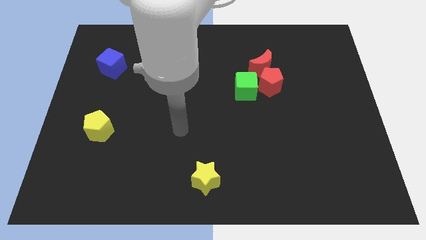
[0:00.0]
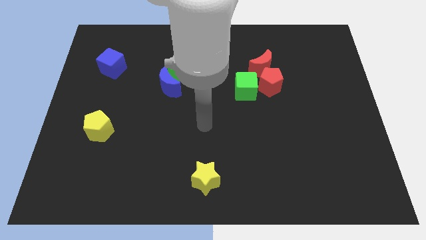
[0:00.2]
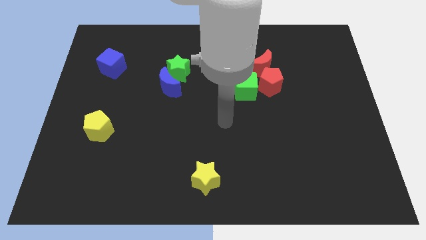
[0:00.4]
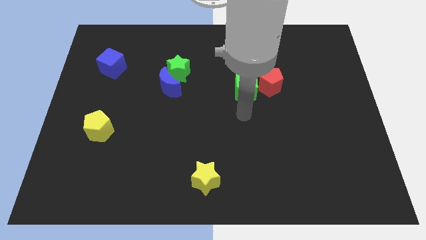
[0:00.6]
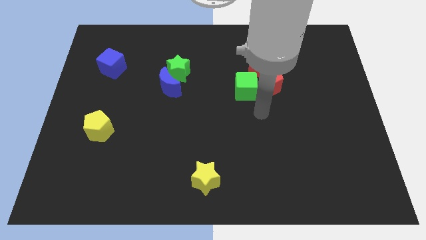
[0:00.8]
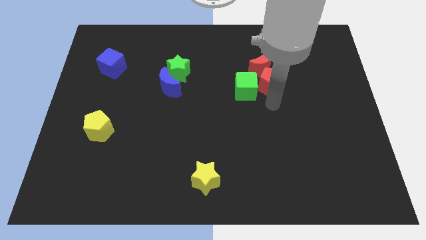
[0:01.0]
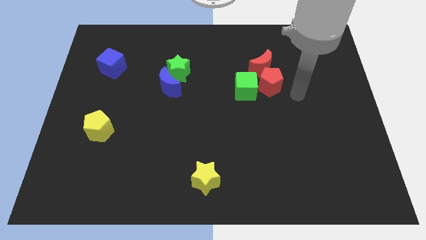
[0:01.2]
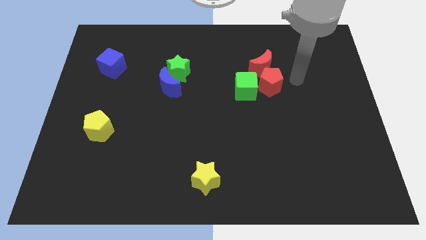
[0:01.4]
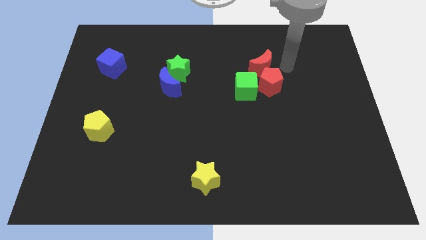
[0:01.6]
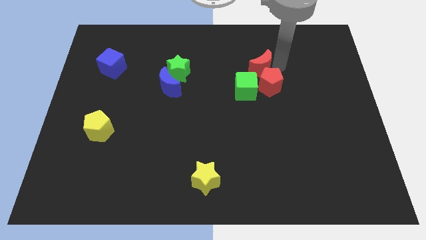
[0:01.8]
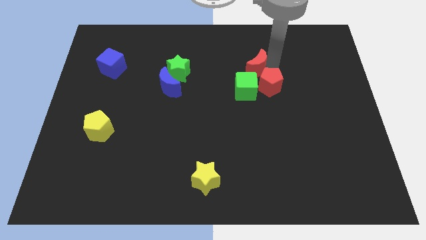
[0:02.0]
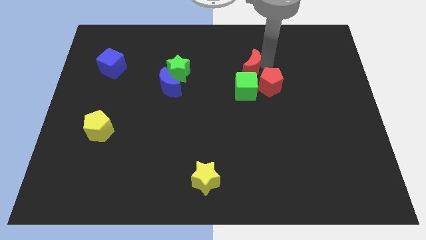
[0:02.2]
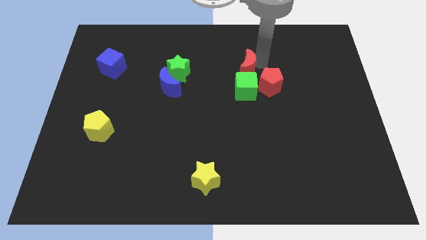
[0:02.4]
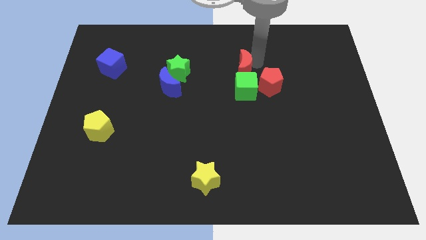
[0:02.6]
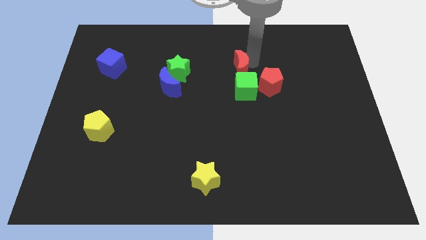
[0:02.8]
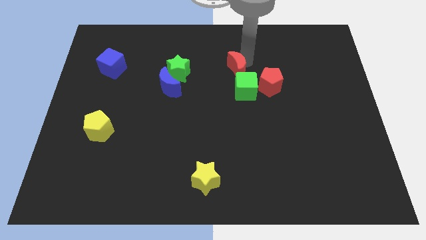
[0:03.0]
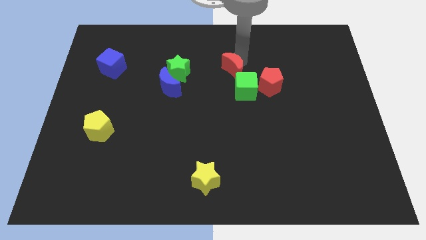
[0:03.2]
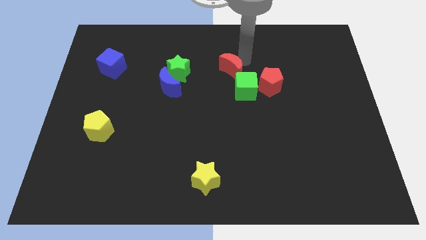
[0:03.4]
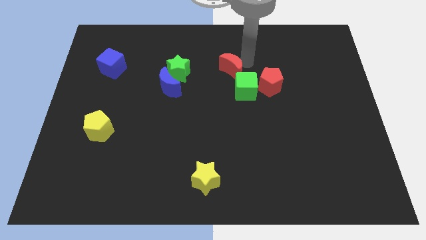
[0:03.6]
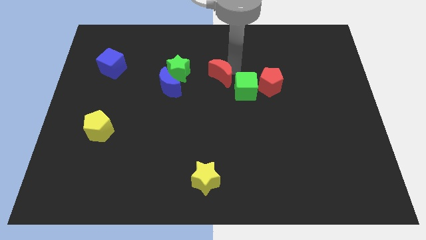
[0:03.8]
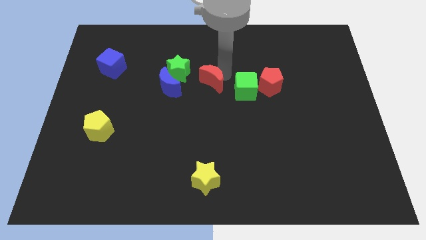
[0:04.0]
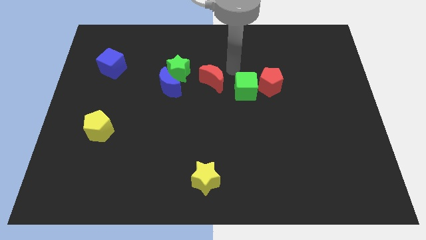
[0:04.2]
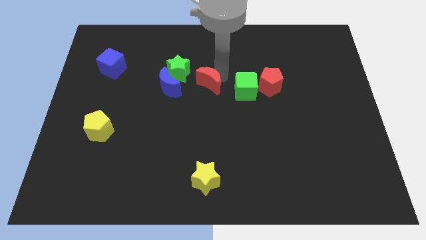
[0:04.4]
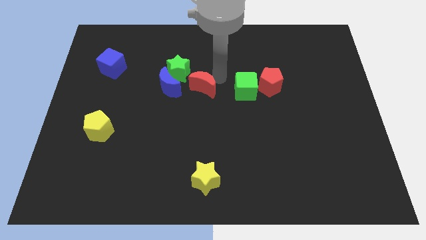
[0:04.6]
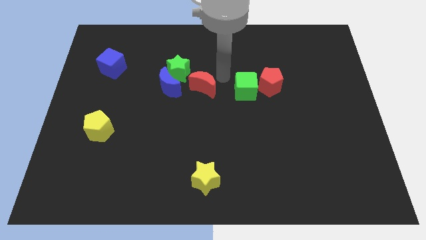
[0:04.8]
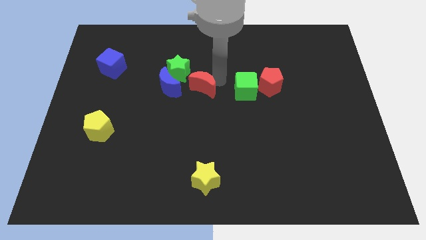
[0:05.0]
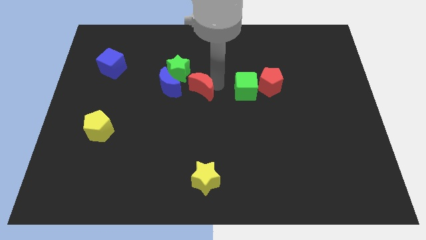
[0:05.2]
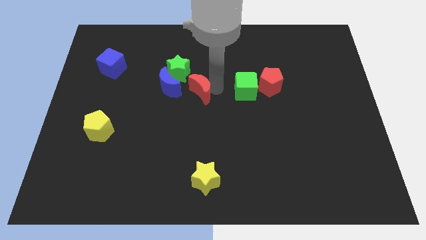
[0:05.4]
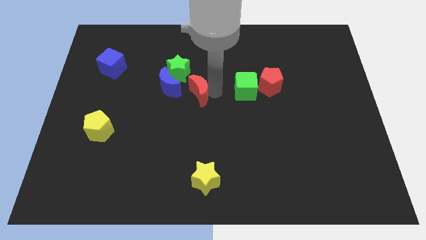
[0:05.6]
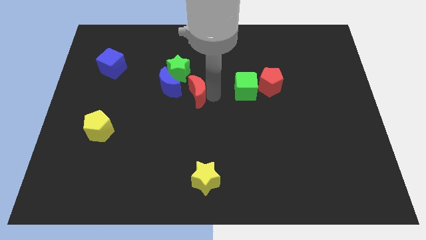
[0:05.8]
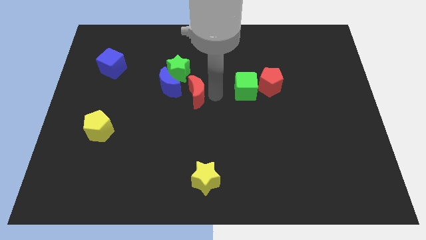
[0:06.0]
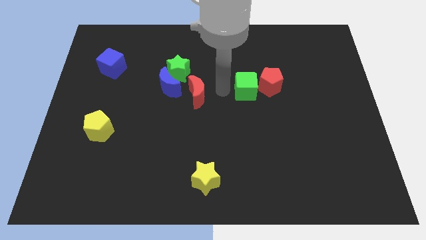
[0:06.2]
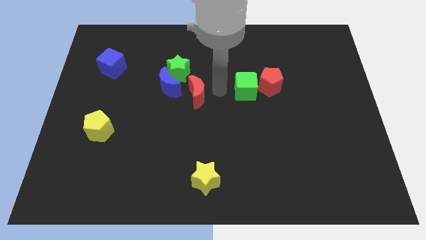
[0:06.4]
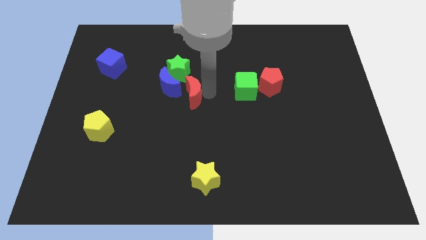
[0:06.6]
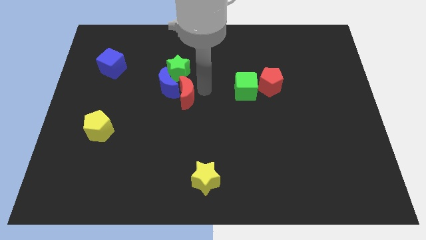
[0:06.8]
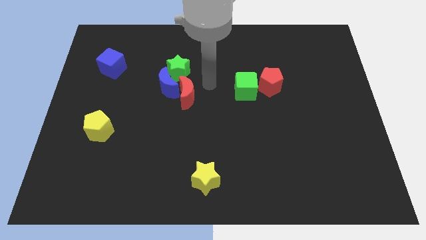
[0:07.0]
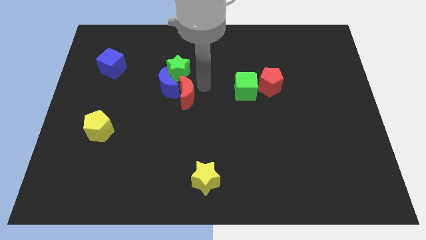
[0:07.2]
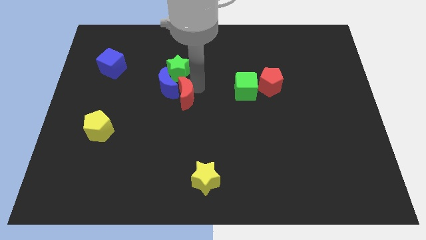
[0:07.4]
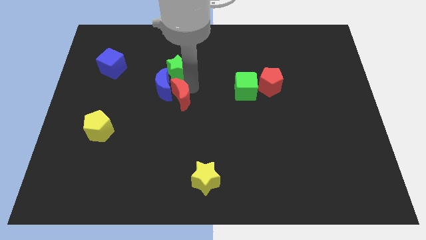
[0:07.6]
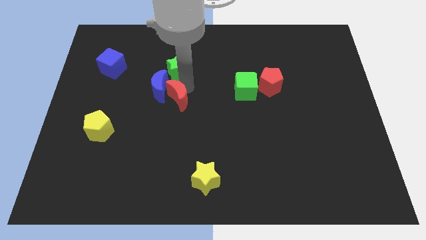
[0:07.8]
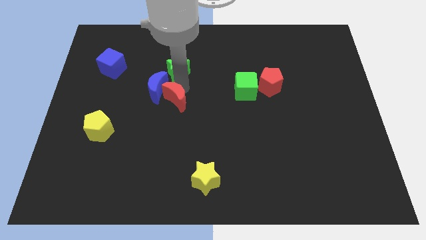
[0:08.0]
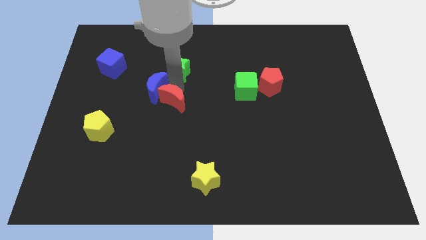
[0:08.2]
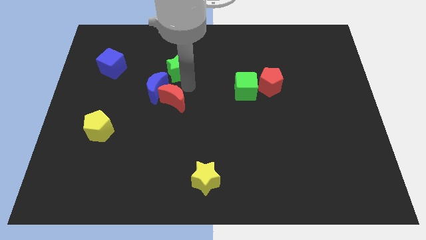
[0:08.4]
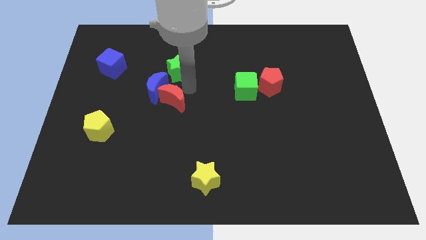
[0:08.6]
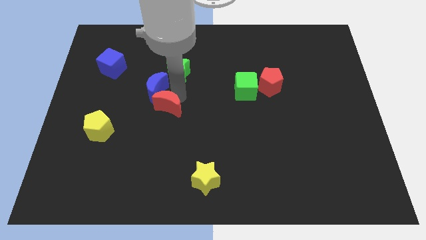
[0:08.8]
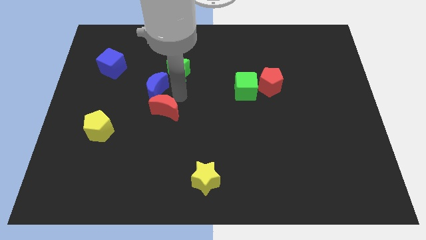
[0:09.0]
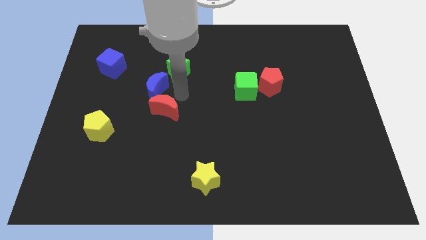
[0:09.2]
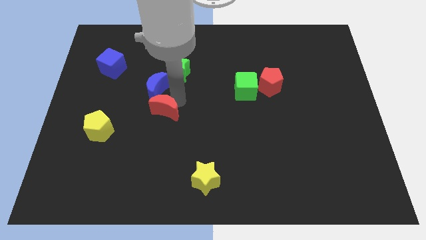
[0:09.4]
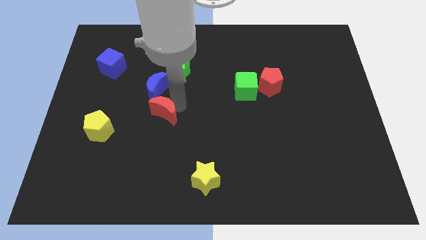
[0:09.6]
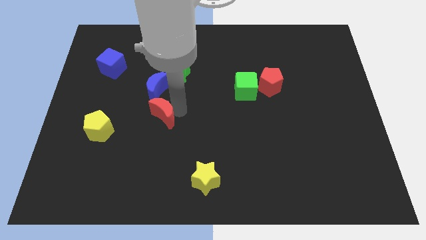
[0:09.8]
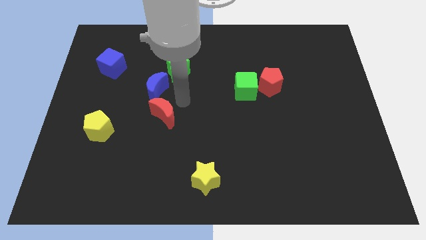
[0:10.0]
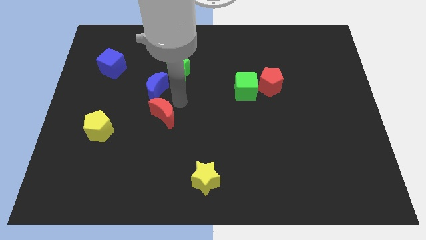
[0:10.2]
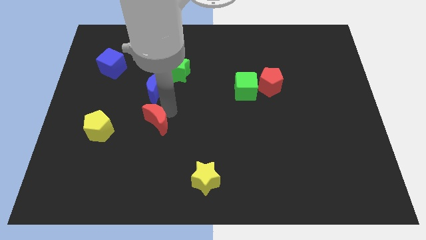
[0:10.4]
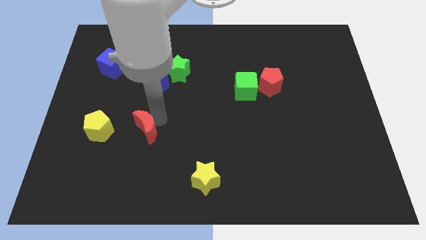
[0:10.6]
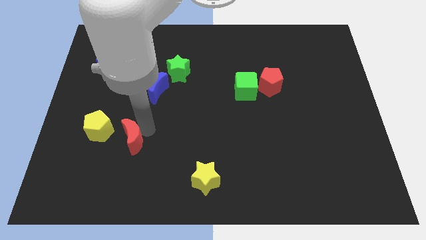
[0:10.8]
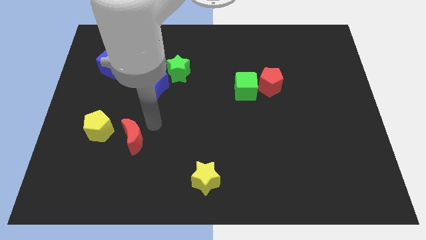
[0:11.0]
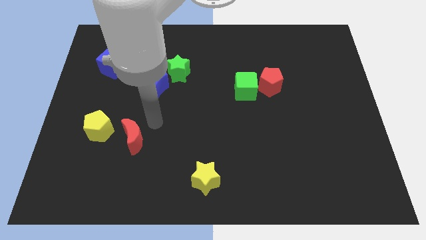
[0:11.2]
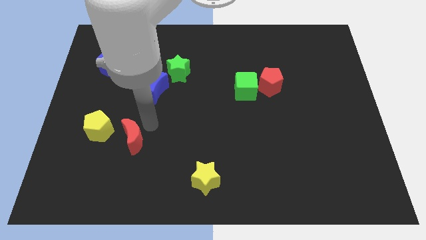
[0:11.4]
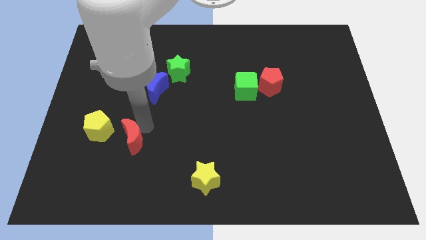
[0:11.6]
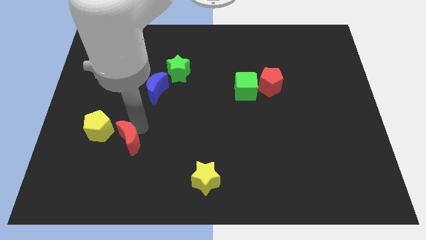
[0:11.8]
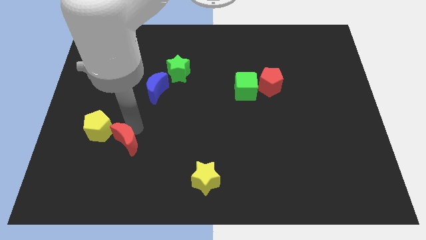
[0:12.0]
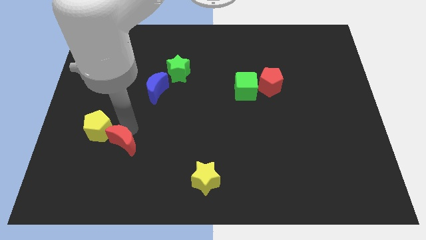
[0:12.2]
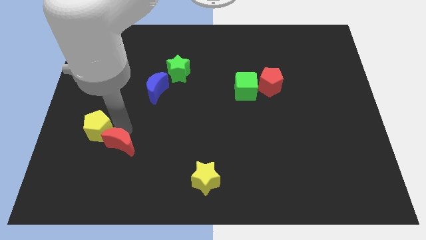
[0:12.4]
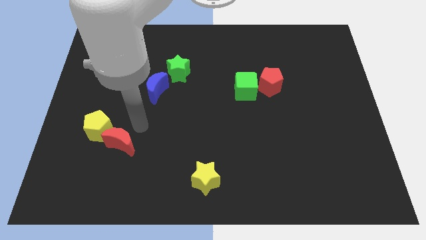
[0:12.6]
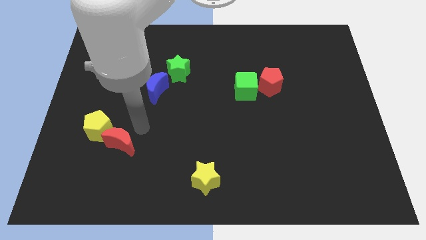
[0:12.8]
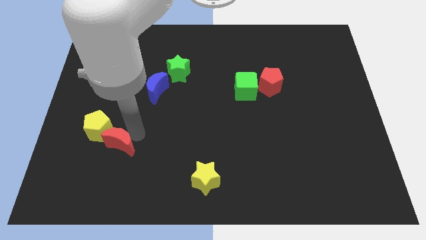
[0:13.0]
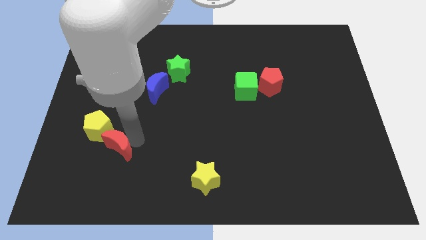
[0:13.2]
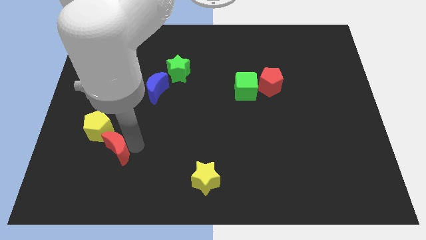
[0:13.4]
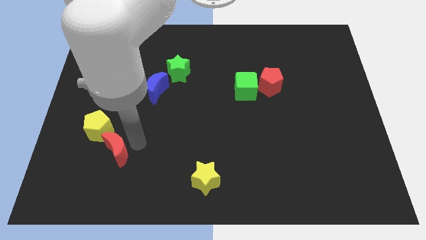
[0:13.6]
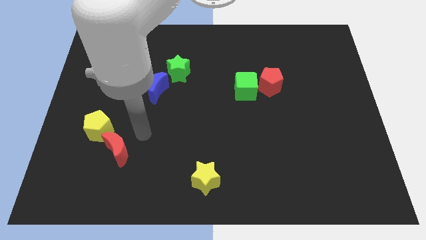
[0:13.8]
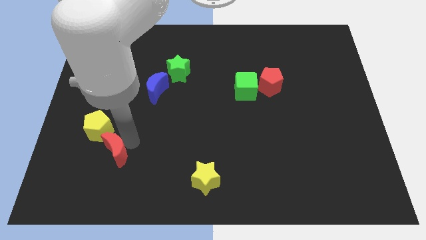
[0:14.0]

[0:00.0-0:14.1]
put the red moon to the bottom side of the yellow pentagon
